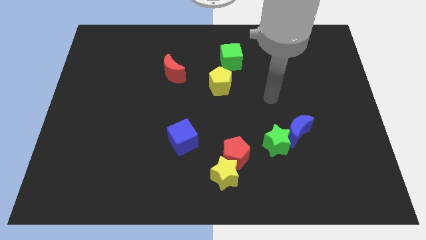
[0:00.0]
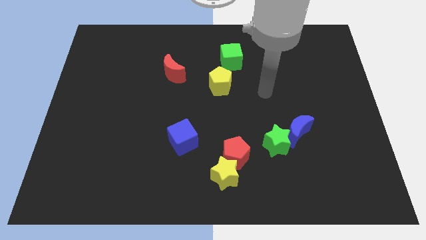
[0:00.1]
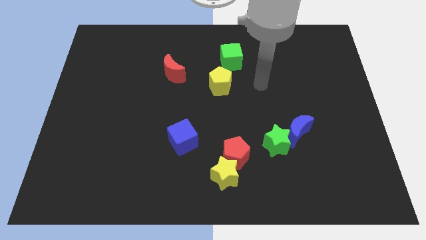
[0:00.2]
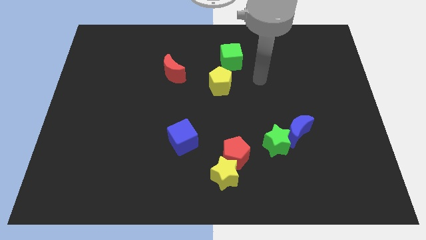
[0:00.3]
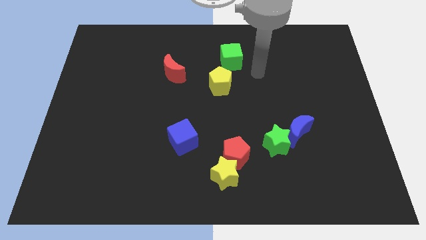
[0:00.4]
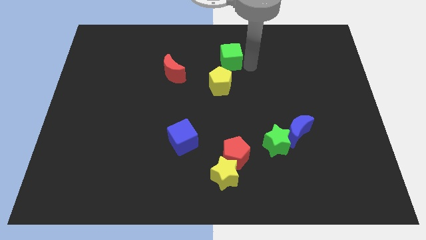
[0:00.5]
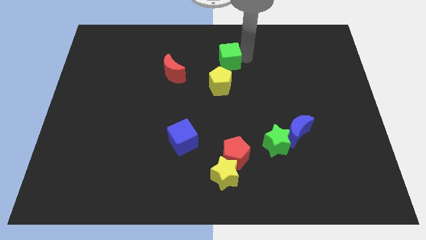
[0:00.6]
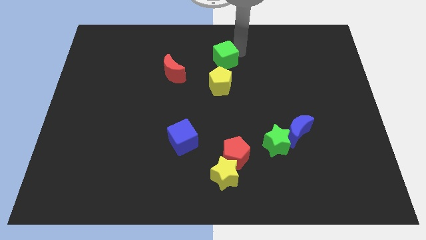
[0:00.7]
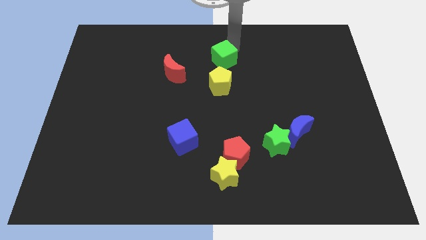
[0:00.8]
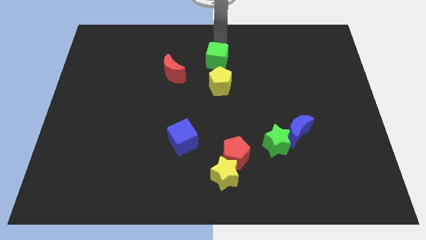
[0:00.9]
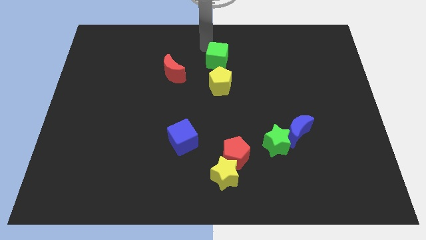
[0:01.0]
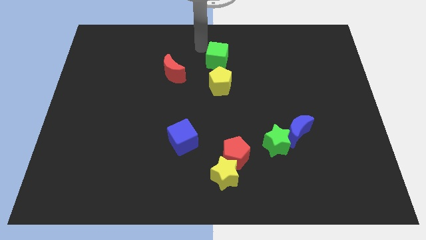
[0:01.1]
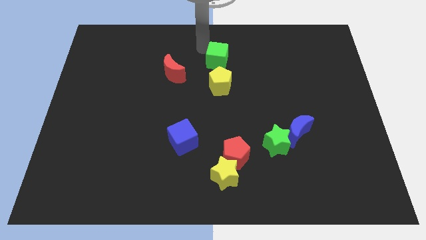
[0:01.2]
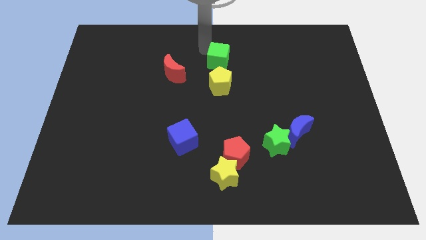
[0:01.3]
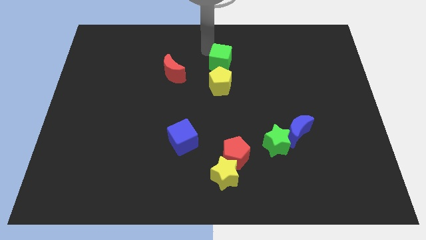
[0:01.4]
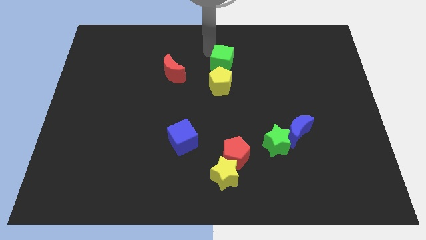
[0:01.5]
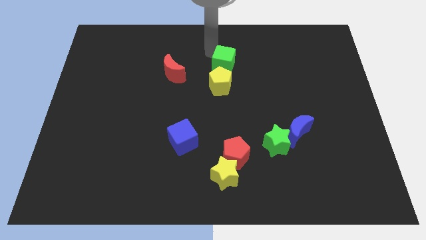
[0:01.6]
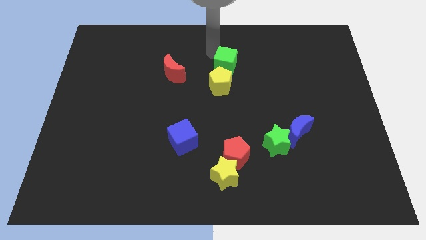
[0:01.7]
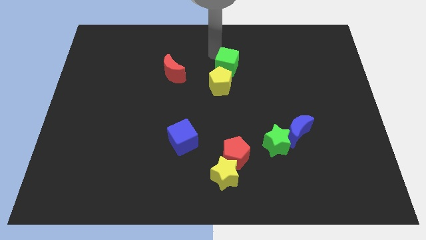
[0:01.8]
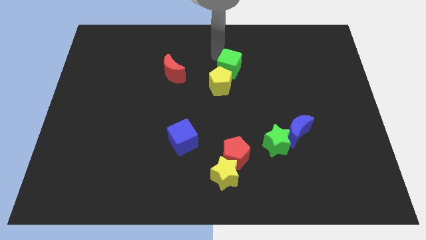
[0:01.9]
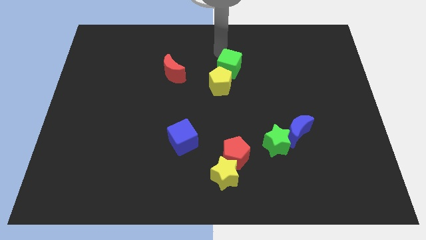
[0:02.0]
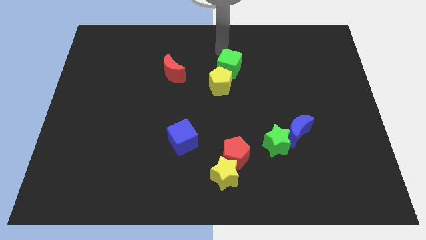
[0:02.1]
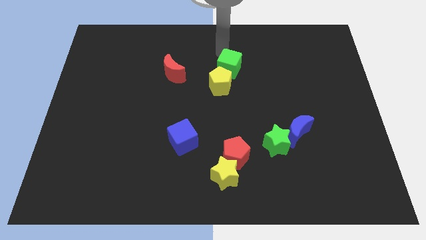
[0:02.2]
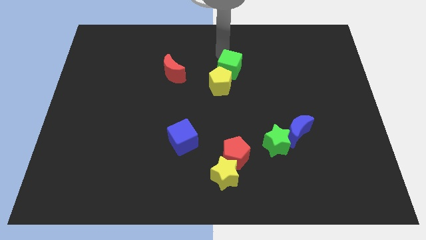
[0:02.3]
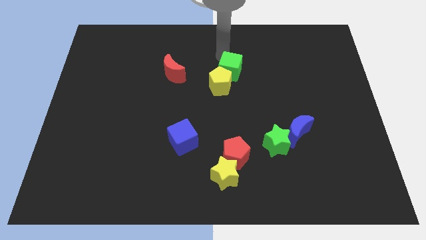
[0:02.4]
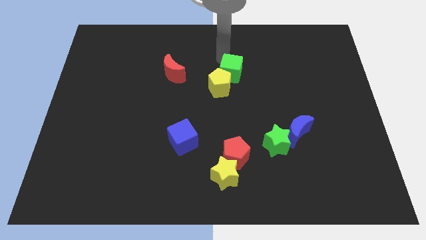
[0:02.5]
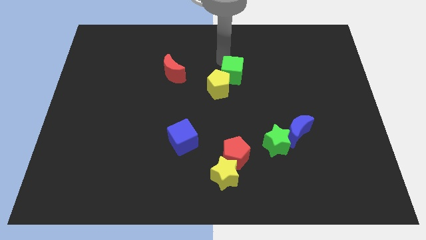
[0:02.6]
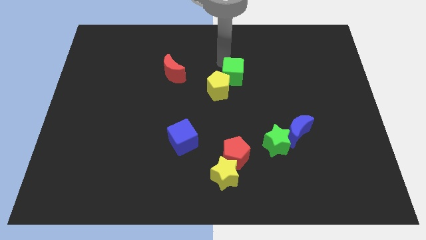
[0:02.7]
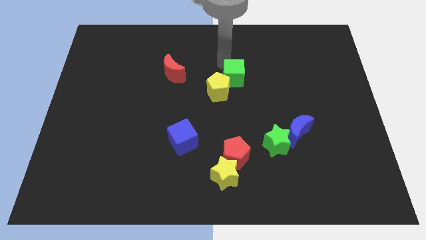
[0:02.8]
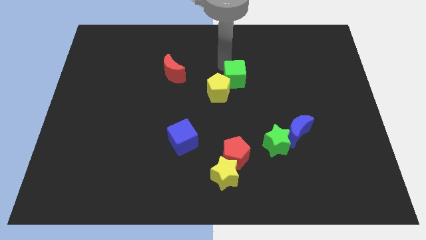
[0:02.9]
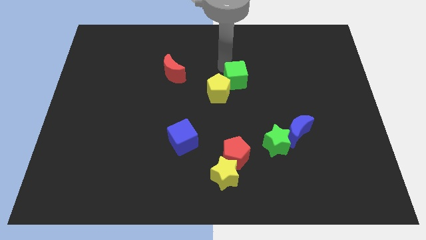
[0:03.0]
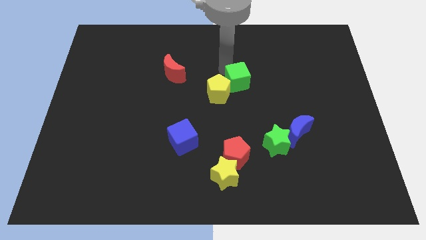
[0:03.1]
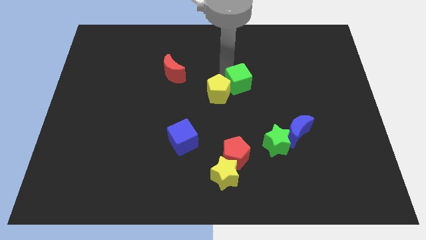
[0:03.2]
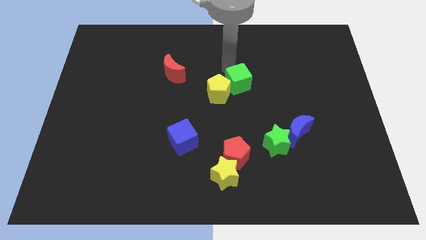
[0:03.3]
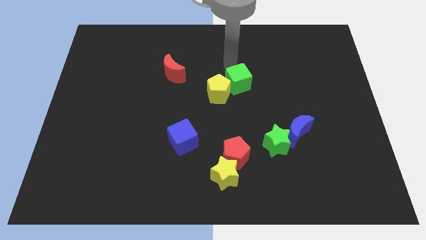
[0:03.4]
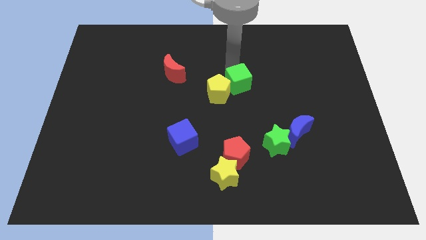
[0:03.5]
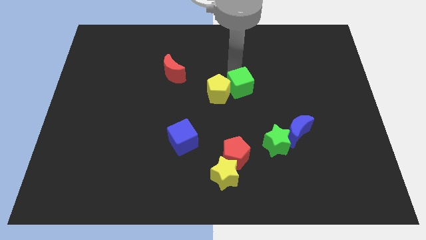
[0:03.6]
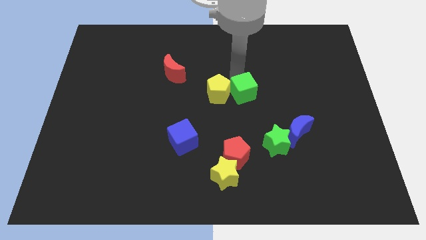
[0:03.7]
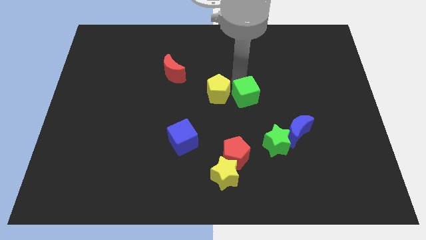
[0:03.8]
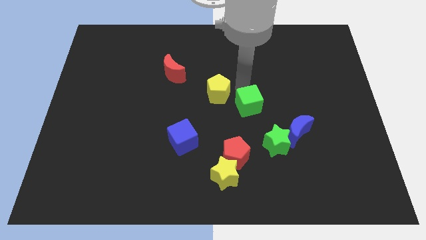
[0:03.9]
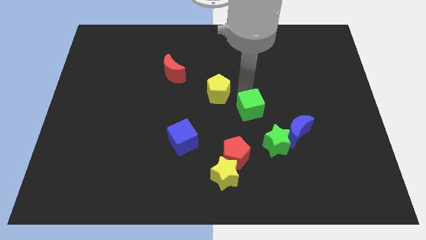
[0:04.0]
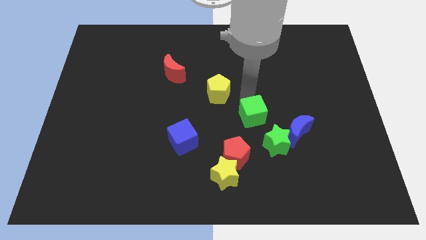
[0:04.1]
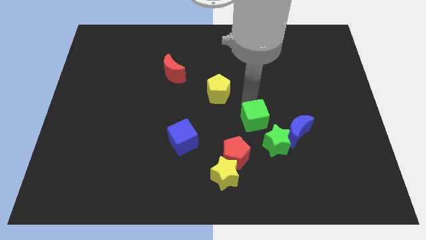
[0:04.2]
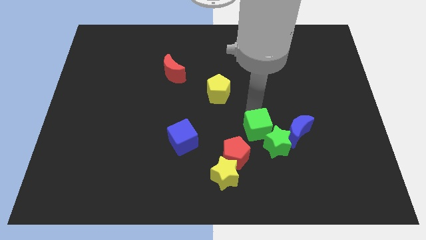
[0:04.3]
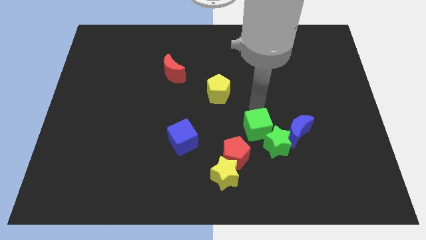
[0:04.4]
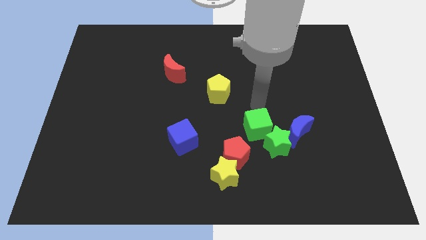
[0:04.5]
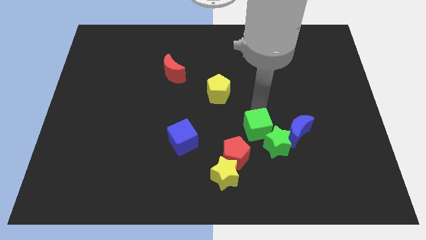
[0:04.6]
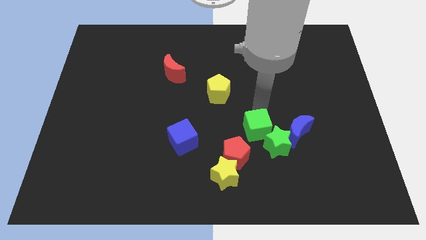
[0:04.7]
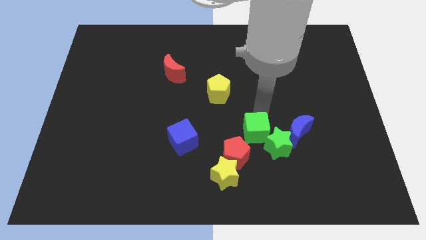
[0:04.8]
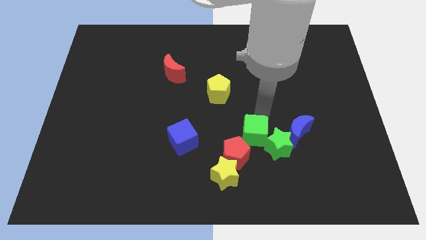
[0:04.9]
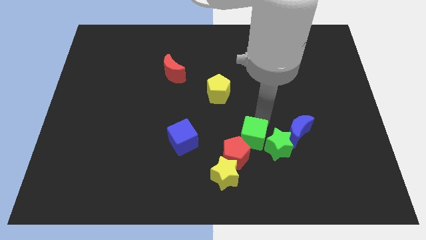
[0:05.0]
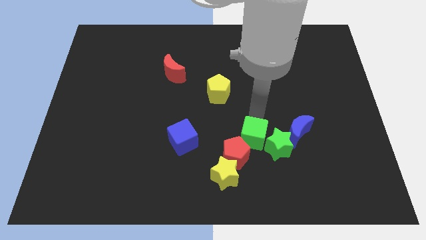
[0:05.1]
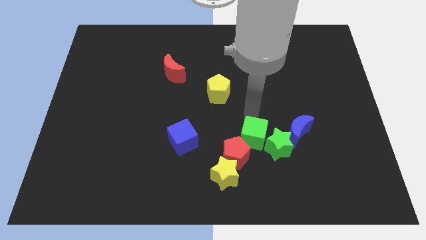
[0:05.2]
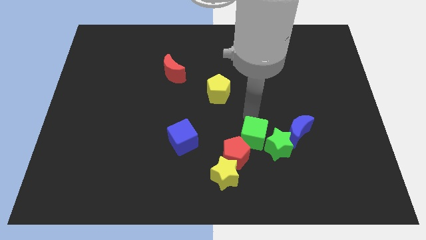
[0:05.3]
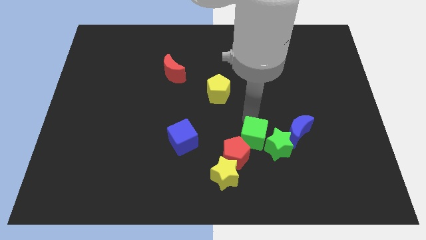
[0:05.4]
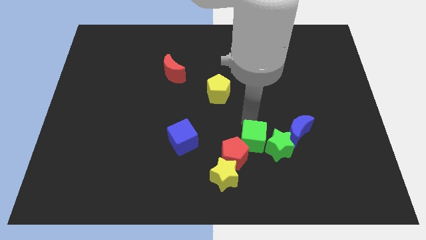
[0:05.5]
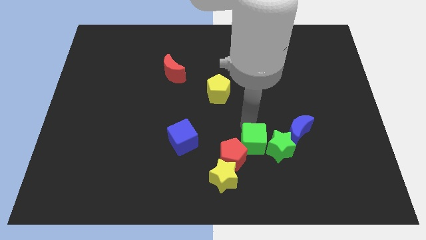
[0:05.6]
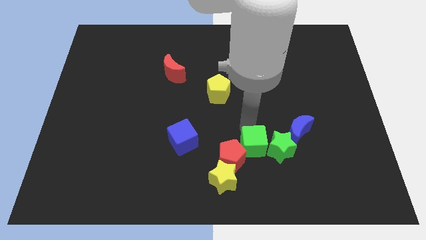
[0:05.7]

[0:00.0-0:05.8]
slide the green cube diagonally down and to the left of the green star

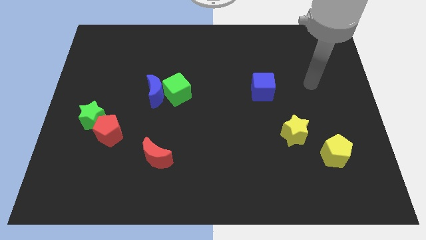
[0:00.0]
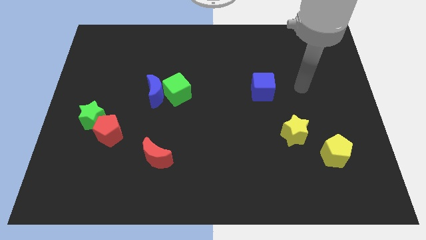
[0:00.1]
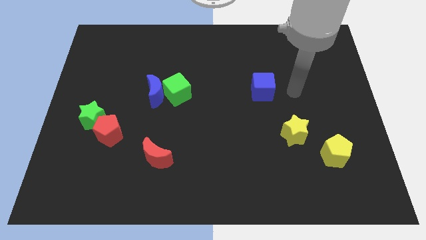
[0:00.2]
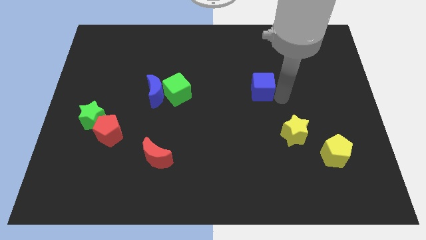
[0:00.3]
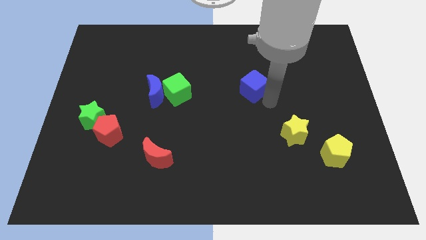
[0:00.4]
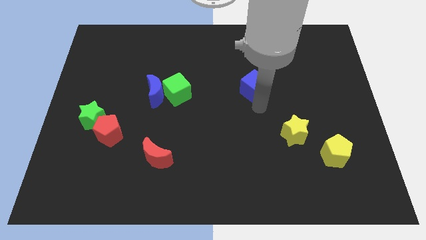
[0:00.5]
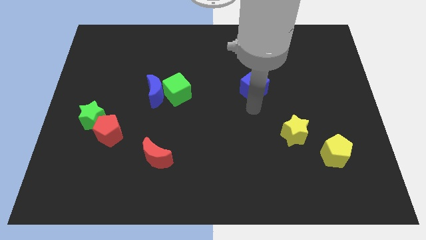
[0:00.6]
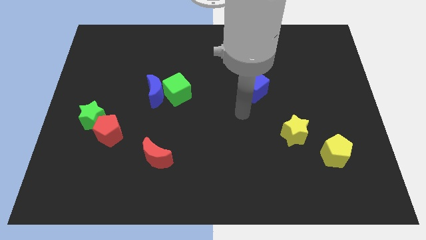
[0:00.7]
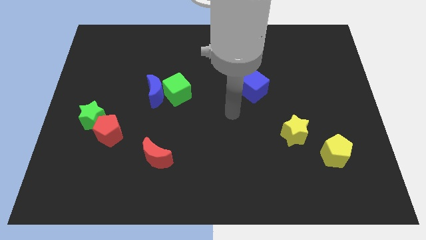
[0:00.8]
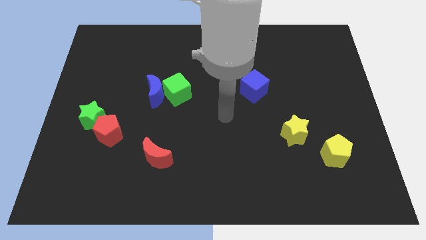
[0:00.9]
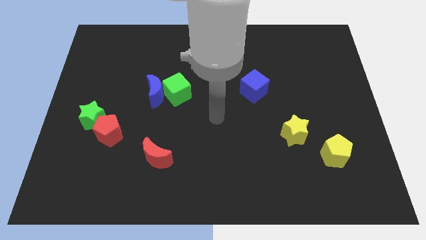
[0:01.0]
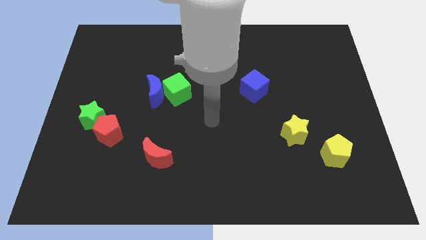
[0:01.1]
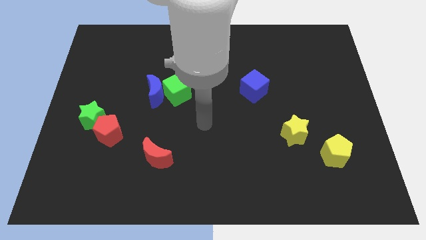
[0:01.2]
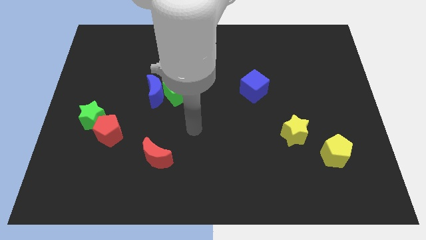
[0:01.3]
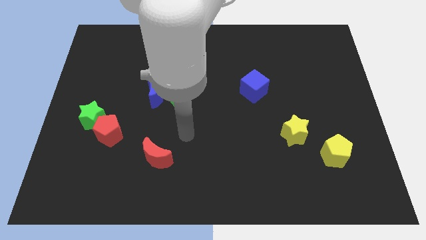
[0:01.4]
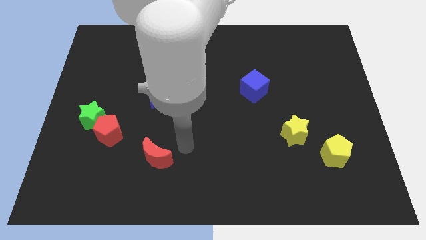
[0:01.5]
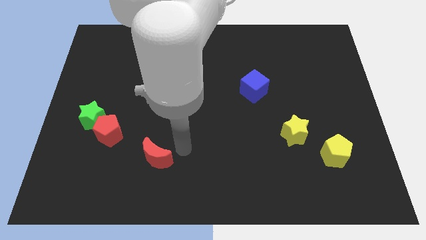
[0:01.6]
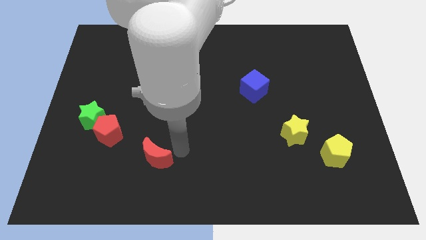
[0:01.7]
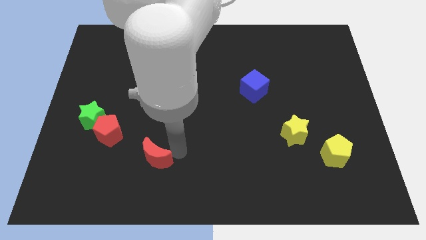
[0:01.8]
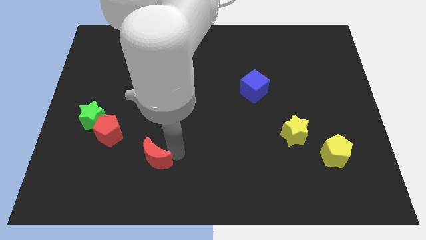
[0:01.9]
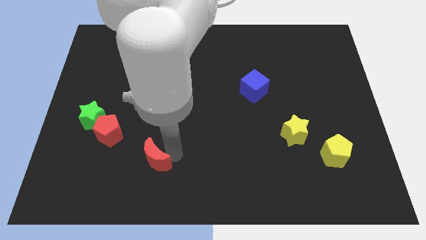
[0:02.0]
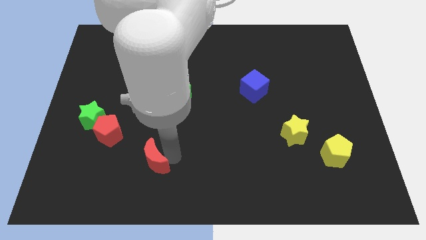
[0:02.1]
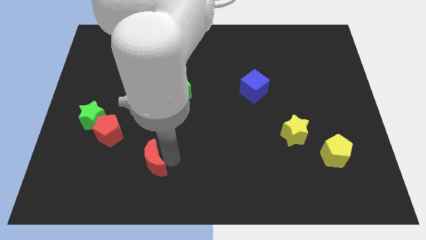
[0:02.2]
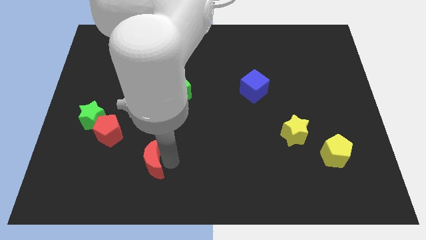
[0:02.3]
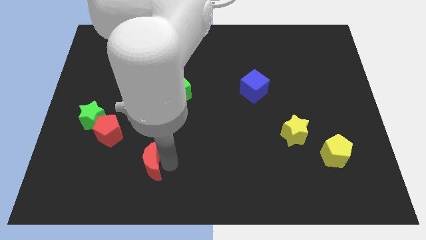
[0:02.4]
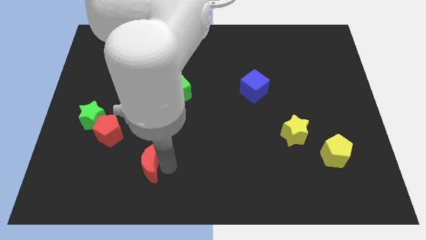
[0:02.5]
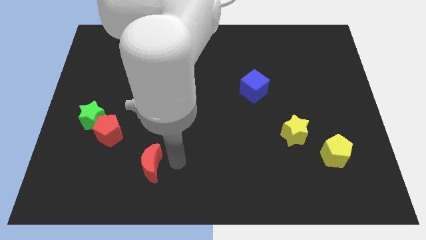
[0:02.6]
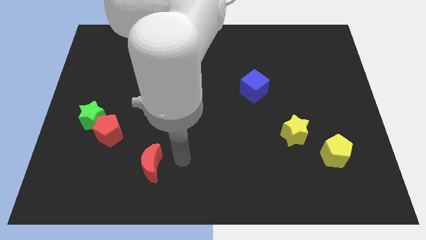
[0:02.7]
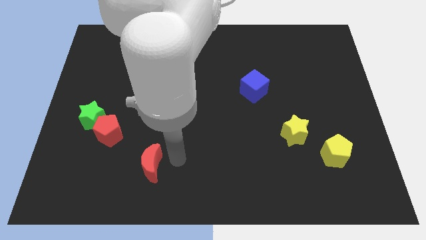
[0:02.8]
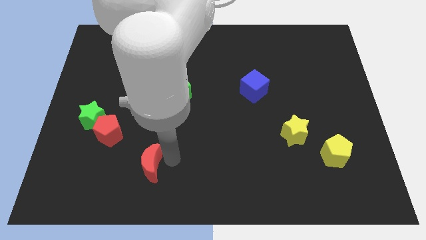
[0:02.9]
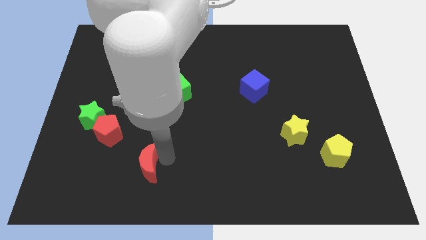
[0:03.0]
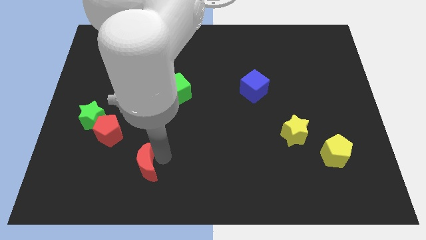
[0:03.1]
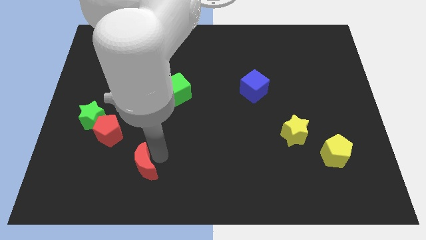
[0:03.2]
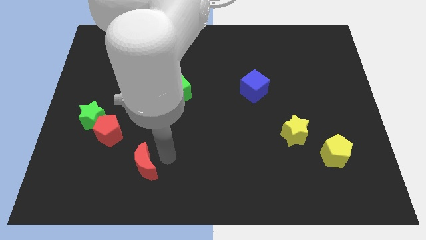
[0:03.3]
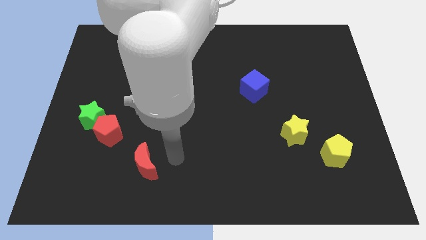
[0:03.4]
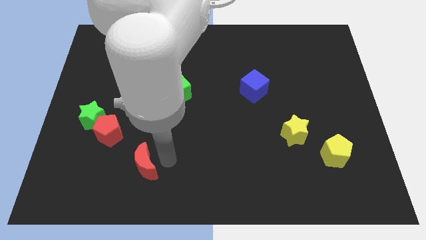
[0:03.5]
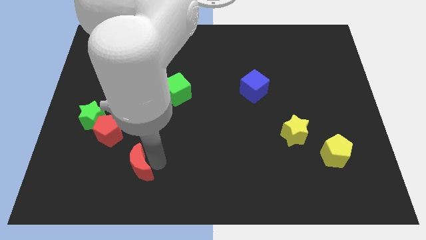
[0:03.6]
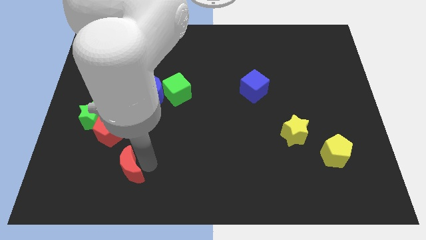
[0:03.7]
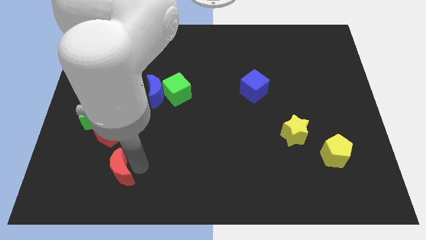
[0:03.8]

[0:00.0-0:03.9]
move the red moon below the red pentagon
